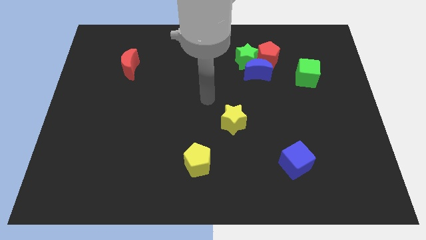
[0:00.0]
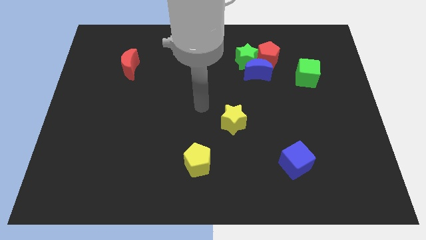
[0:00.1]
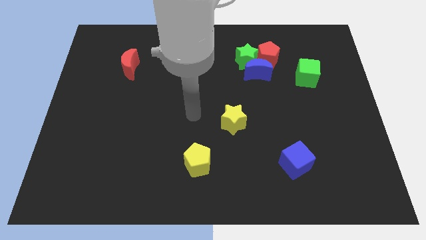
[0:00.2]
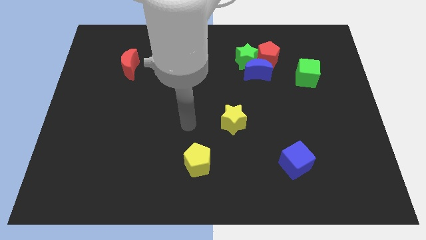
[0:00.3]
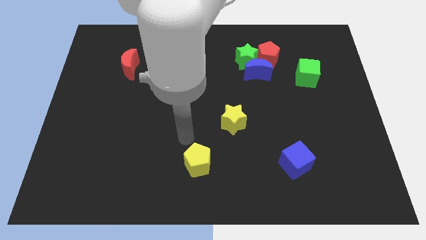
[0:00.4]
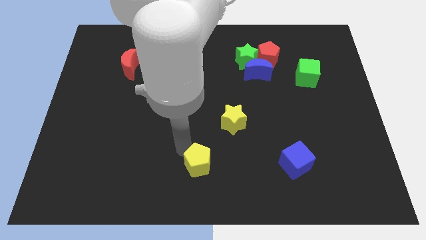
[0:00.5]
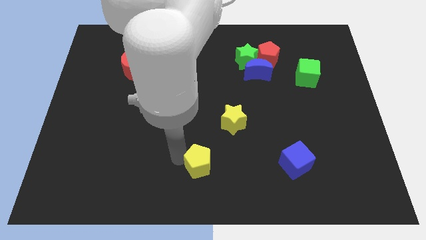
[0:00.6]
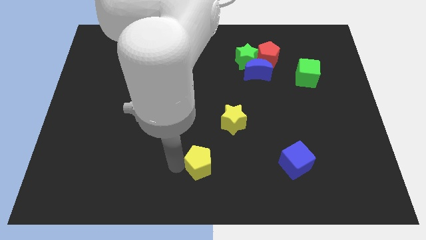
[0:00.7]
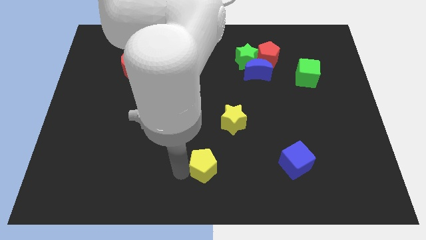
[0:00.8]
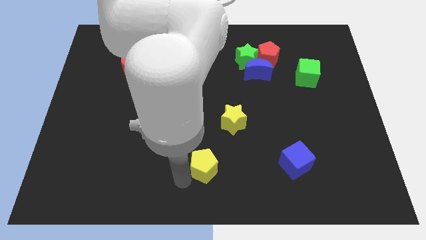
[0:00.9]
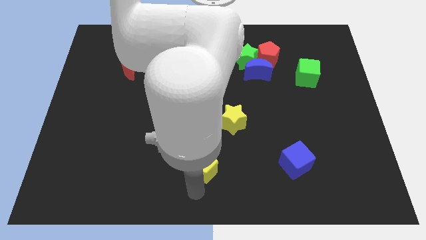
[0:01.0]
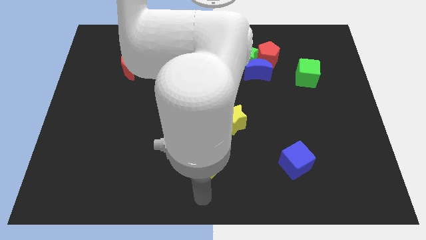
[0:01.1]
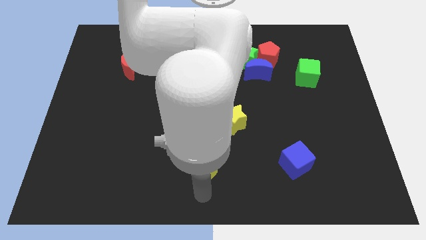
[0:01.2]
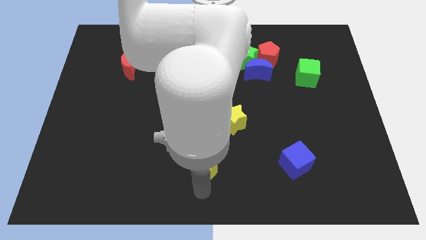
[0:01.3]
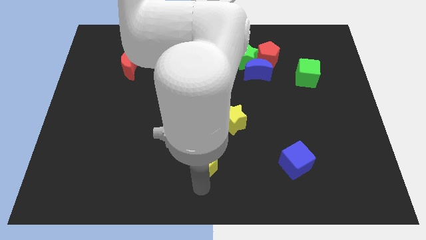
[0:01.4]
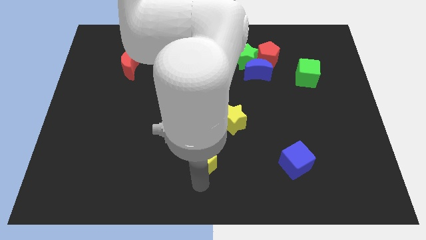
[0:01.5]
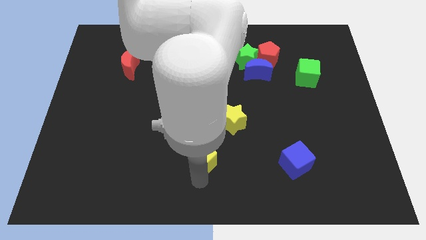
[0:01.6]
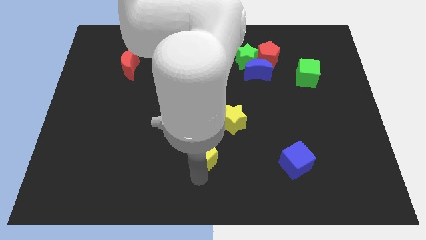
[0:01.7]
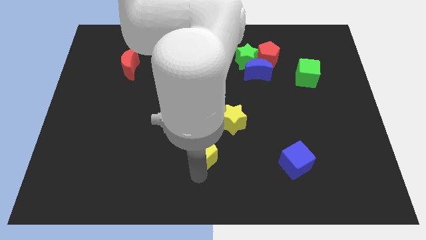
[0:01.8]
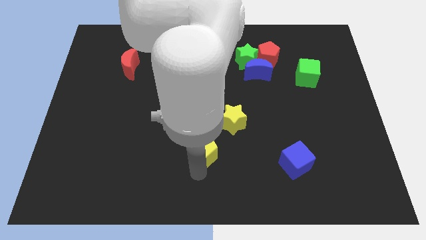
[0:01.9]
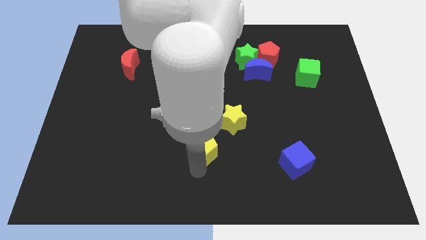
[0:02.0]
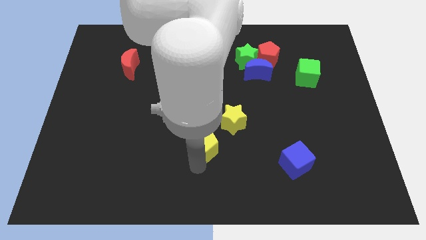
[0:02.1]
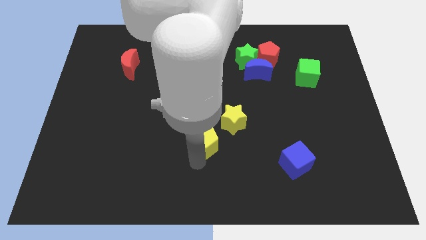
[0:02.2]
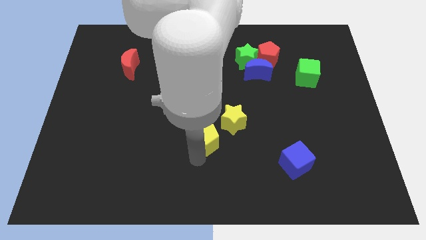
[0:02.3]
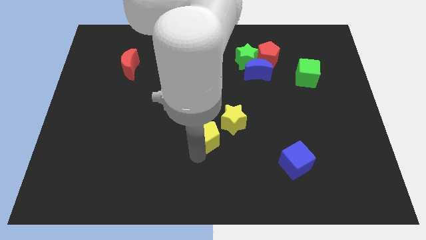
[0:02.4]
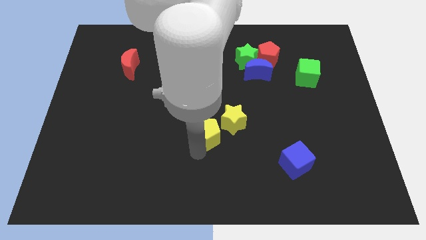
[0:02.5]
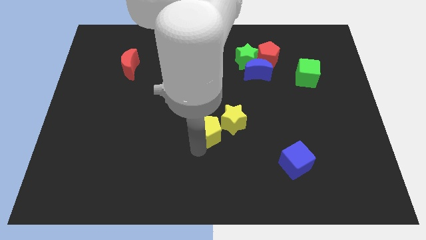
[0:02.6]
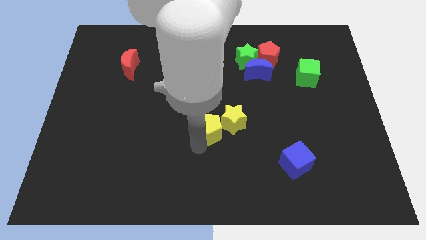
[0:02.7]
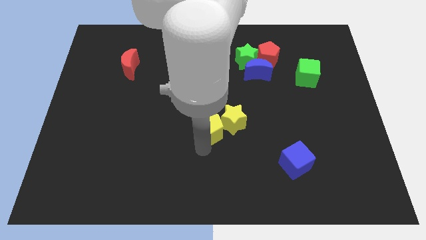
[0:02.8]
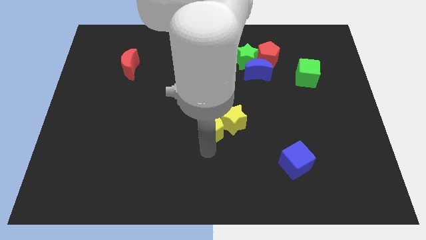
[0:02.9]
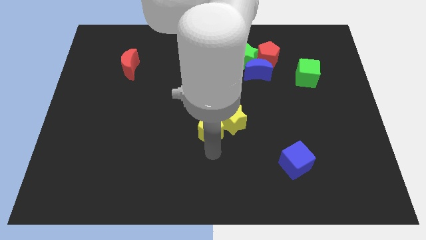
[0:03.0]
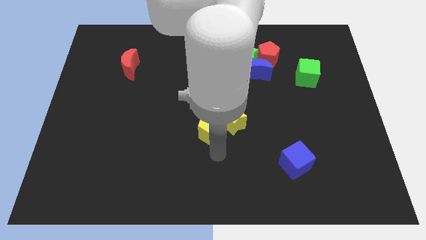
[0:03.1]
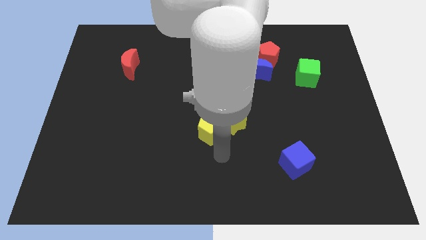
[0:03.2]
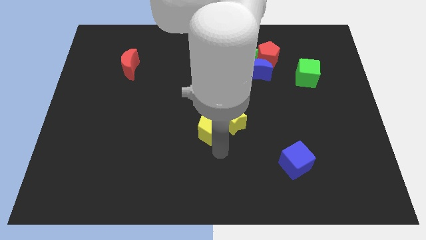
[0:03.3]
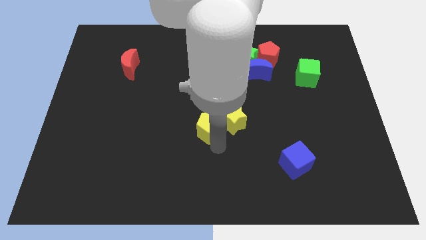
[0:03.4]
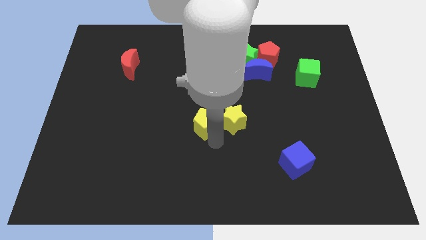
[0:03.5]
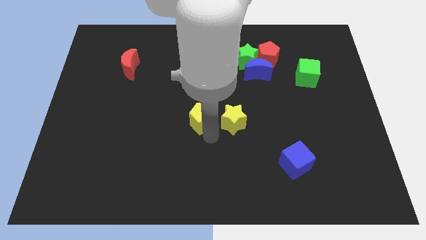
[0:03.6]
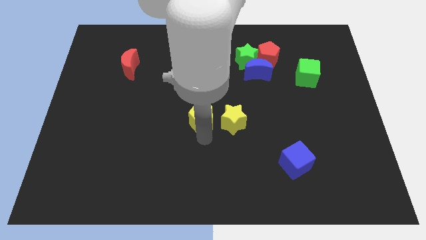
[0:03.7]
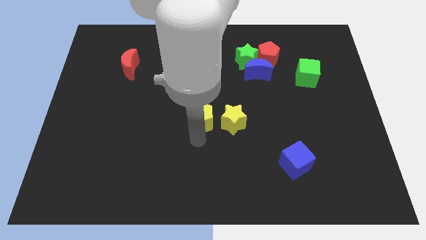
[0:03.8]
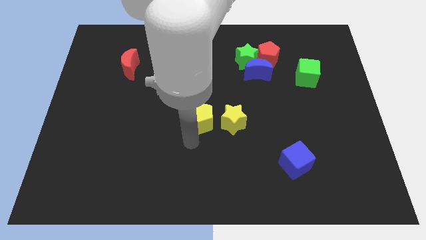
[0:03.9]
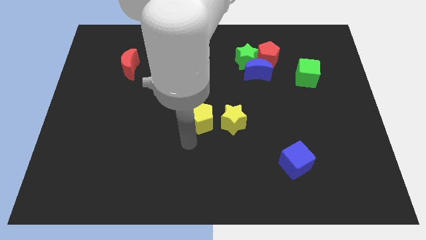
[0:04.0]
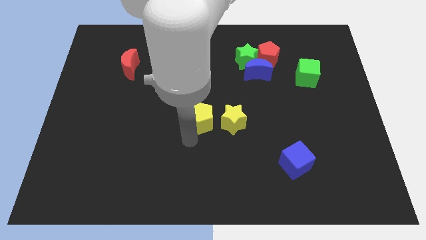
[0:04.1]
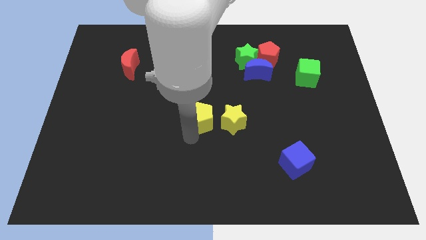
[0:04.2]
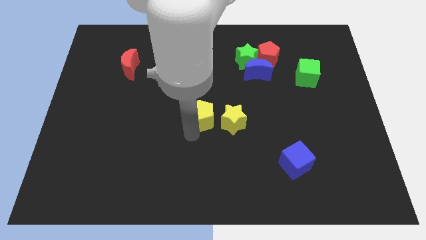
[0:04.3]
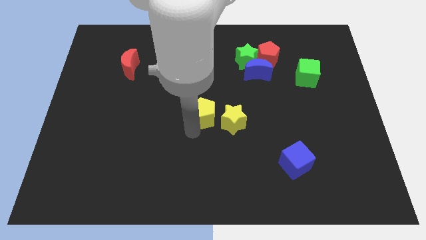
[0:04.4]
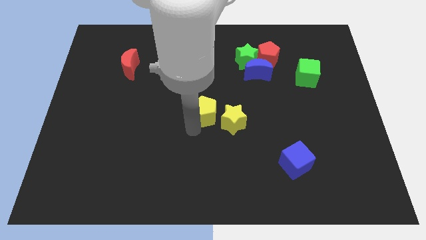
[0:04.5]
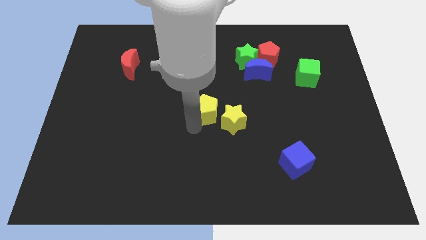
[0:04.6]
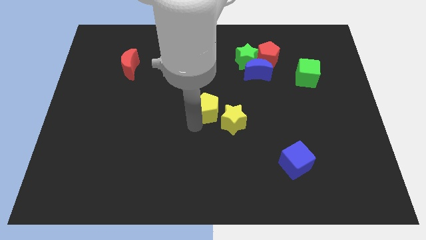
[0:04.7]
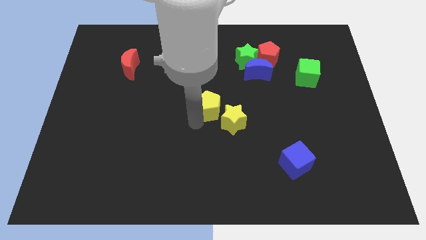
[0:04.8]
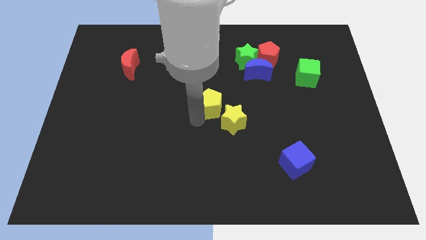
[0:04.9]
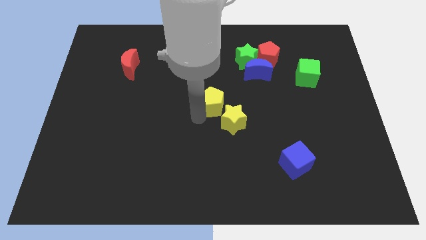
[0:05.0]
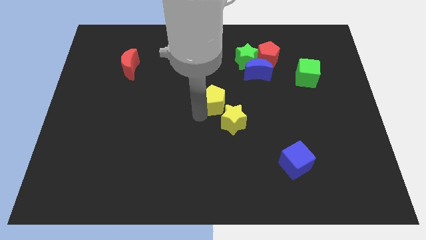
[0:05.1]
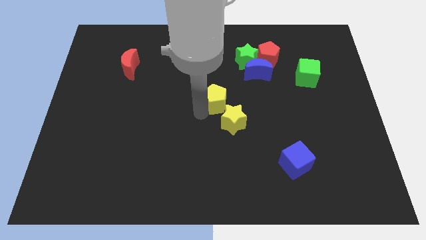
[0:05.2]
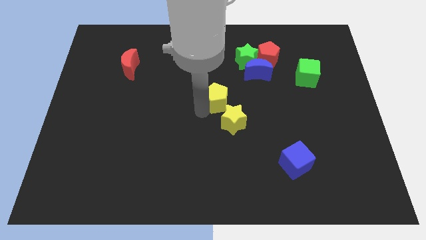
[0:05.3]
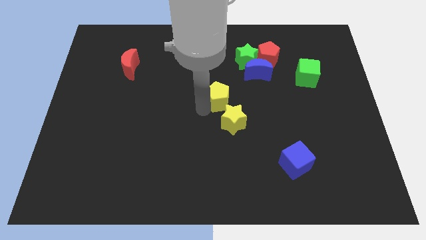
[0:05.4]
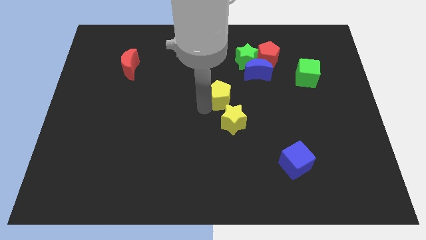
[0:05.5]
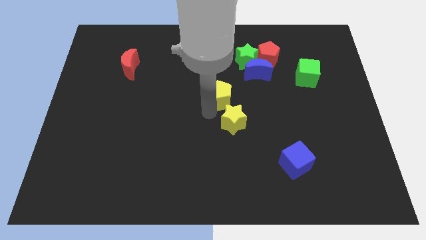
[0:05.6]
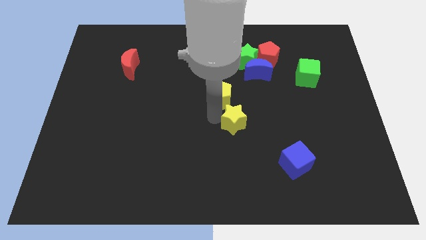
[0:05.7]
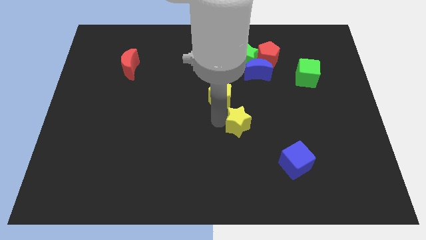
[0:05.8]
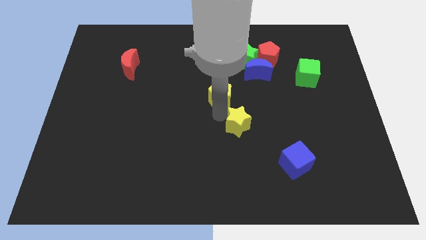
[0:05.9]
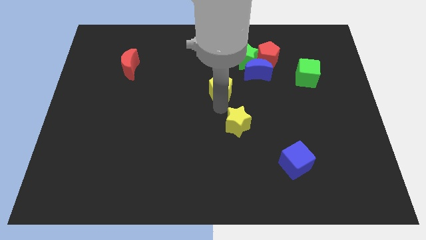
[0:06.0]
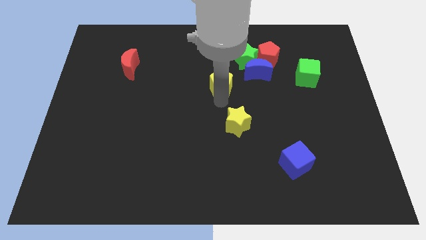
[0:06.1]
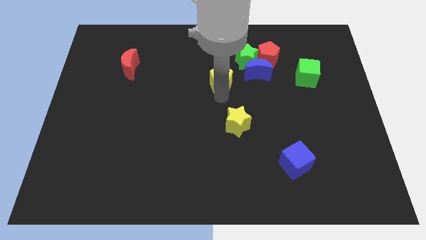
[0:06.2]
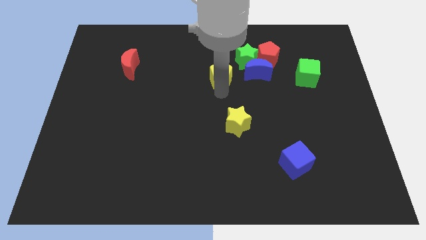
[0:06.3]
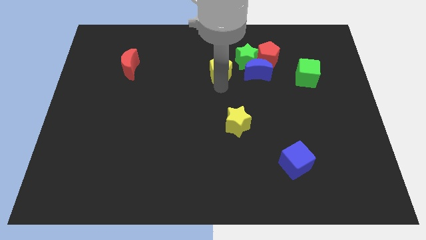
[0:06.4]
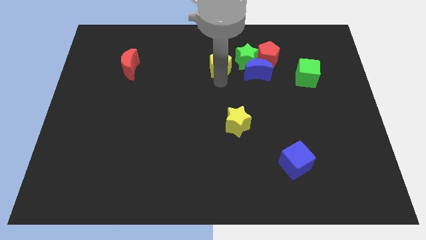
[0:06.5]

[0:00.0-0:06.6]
push the yellow pentagon left of the red pentagon
